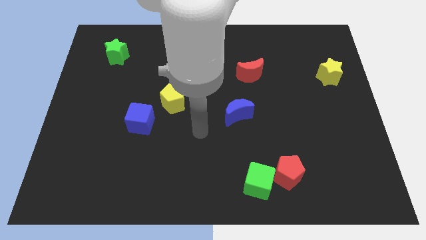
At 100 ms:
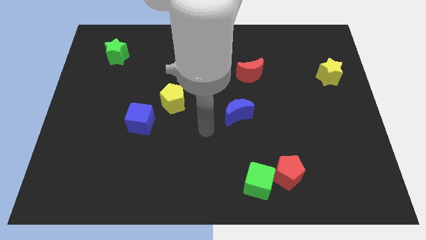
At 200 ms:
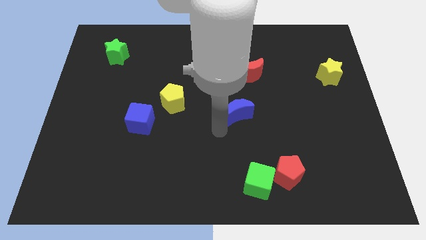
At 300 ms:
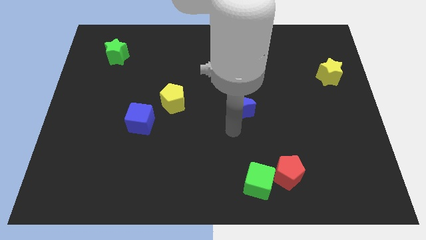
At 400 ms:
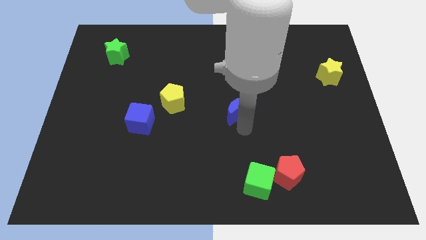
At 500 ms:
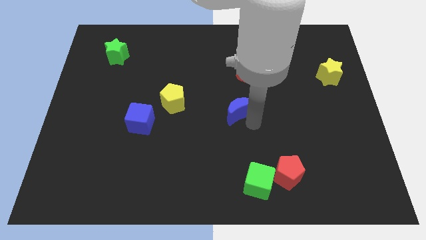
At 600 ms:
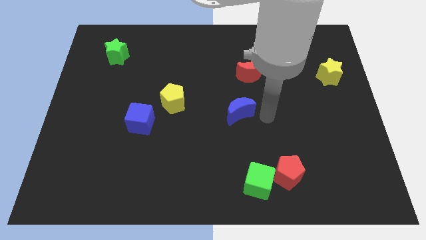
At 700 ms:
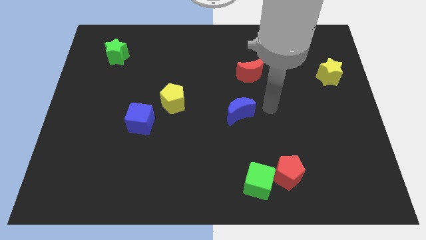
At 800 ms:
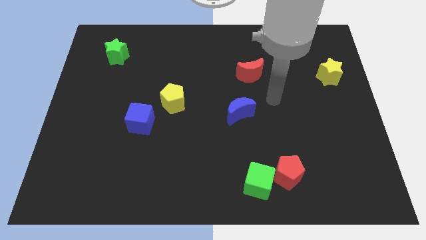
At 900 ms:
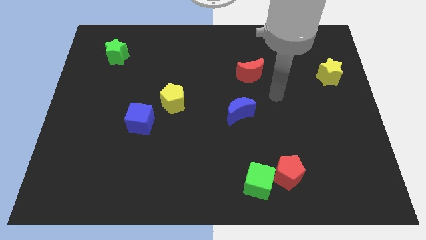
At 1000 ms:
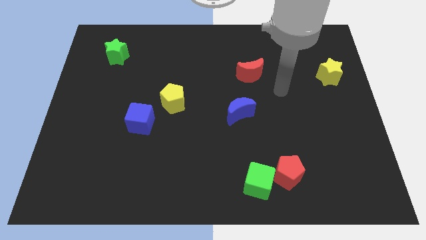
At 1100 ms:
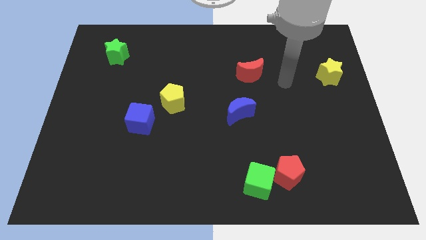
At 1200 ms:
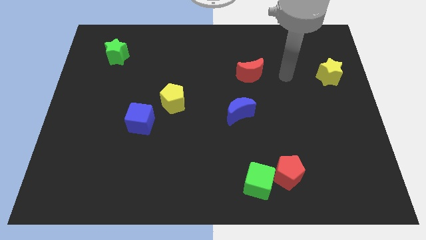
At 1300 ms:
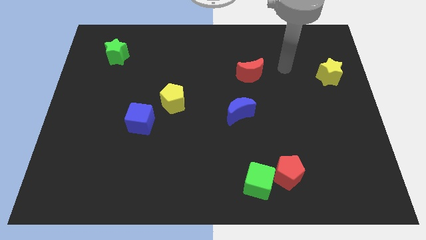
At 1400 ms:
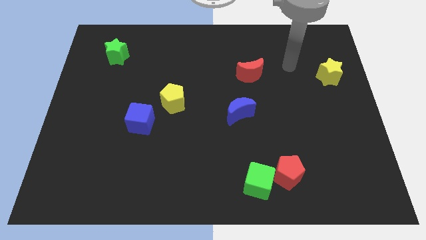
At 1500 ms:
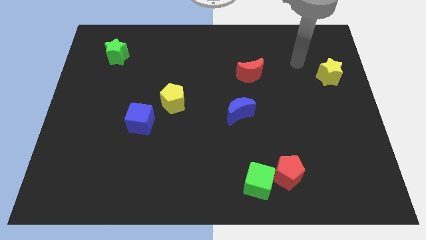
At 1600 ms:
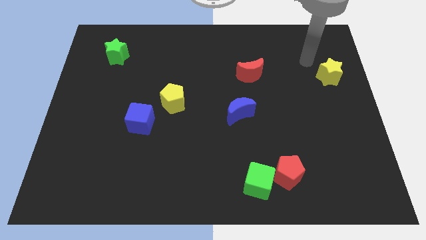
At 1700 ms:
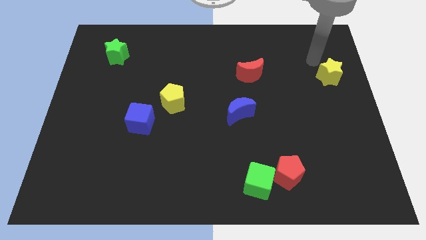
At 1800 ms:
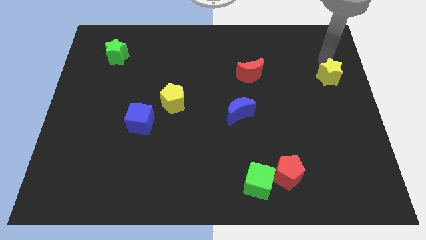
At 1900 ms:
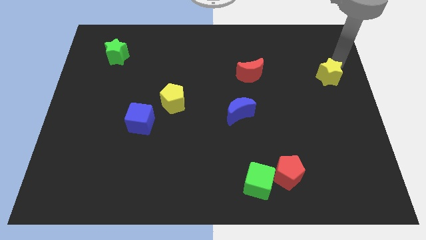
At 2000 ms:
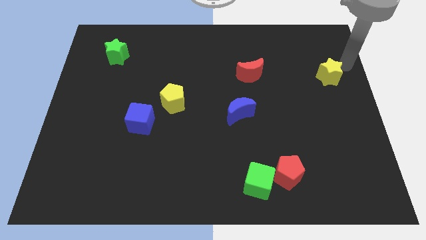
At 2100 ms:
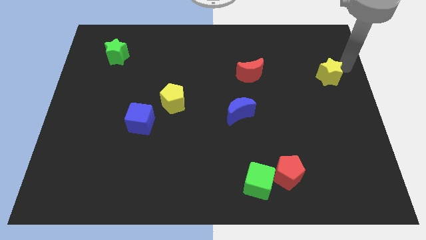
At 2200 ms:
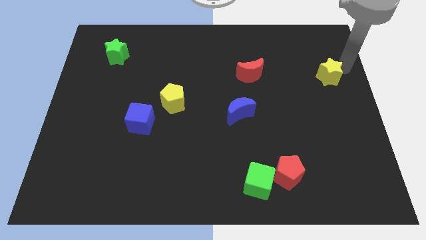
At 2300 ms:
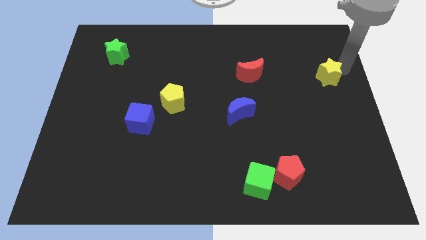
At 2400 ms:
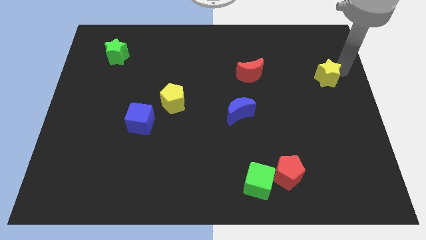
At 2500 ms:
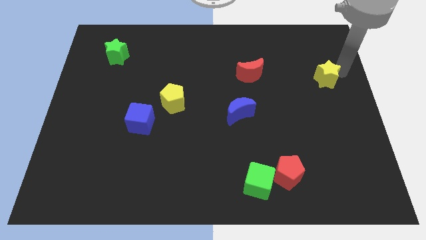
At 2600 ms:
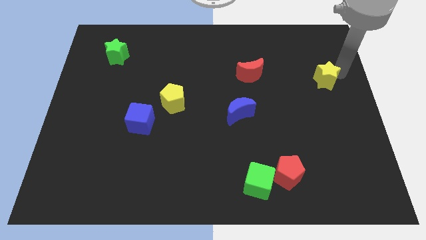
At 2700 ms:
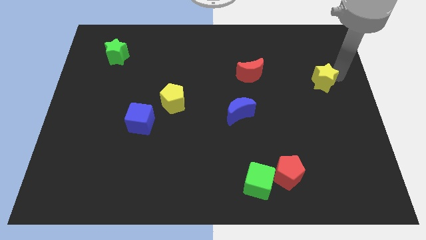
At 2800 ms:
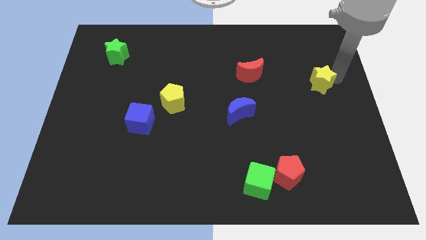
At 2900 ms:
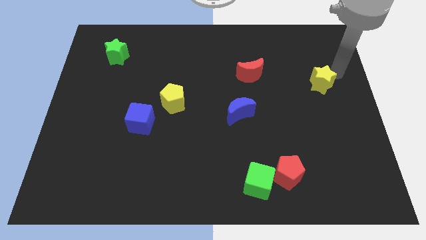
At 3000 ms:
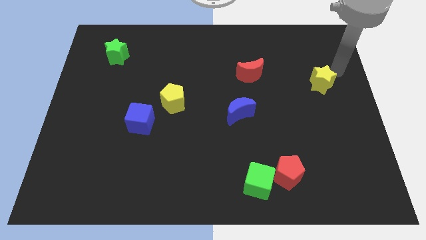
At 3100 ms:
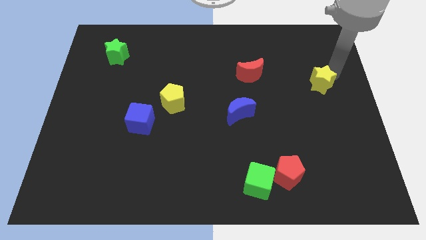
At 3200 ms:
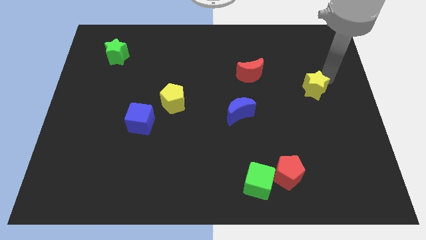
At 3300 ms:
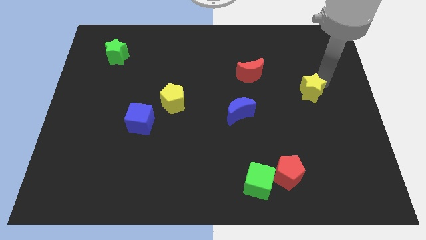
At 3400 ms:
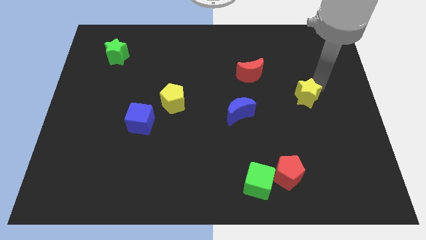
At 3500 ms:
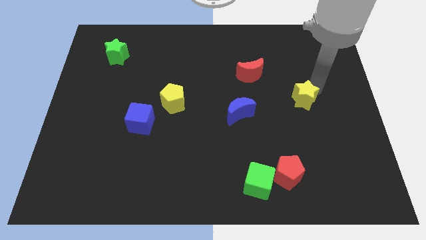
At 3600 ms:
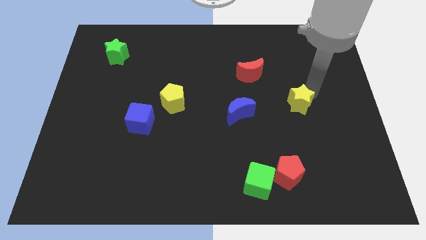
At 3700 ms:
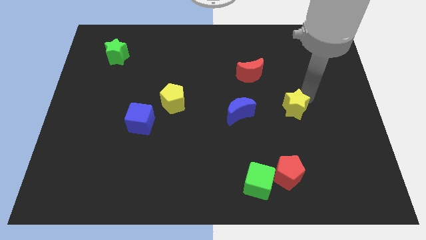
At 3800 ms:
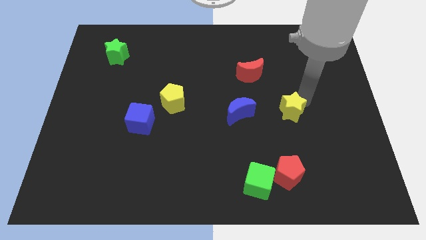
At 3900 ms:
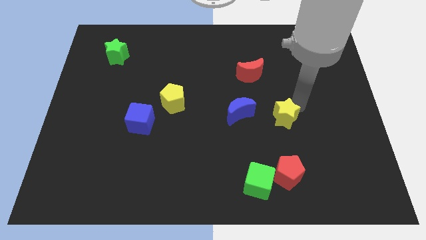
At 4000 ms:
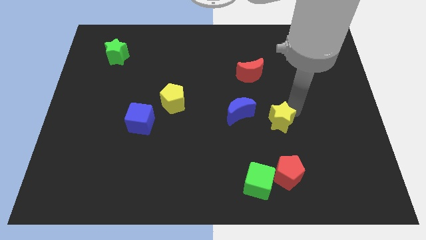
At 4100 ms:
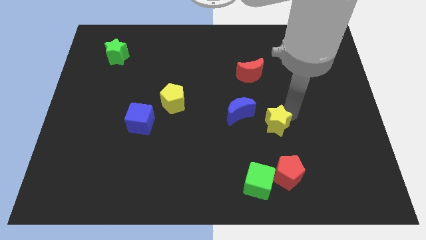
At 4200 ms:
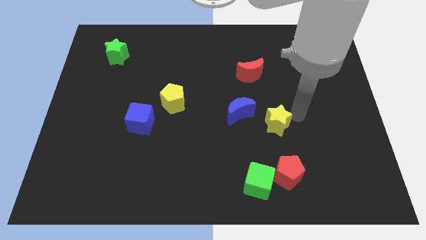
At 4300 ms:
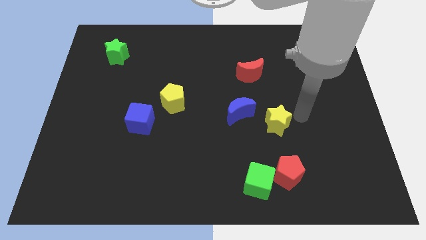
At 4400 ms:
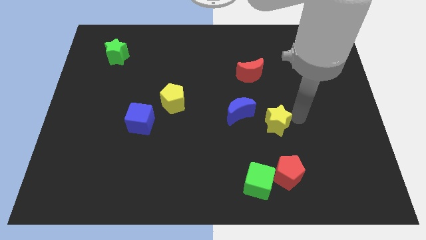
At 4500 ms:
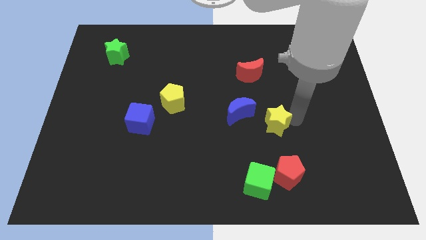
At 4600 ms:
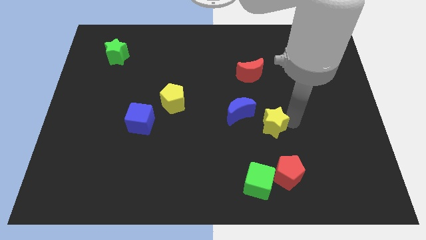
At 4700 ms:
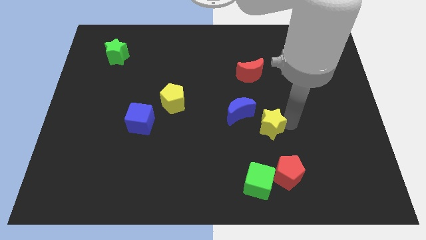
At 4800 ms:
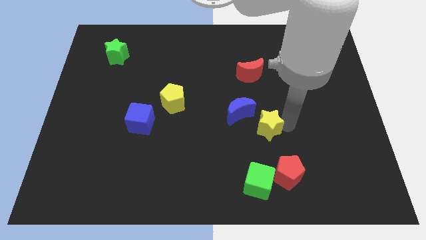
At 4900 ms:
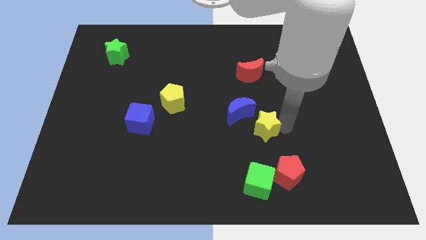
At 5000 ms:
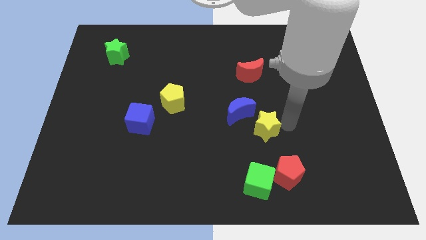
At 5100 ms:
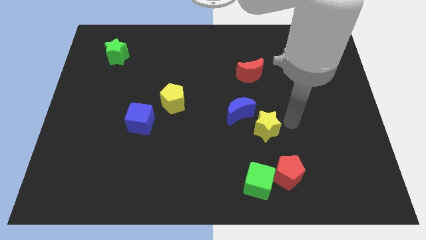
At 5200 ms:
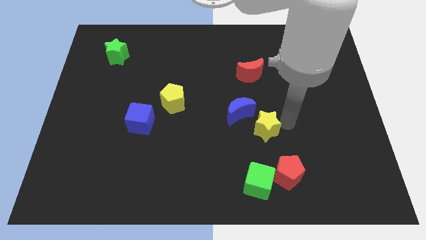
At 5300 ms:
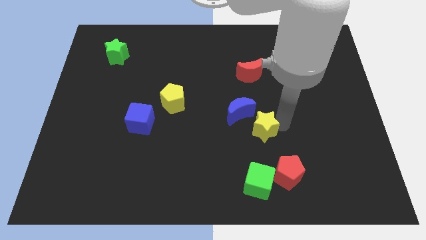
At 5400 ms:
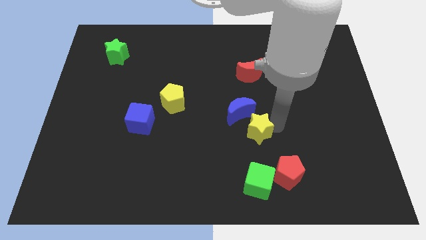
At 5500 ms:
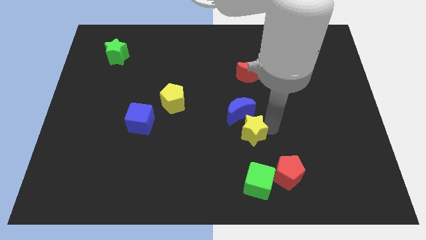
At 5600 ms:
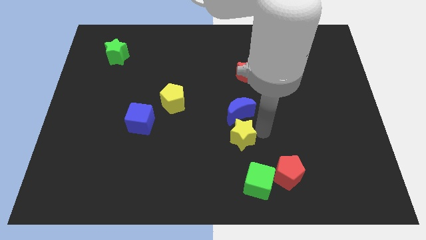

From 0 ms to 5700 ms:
move the yellow star to the bottom left side of the blue moon

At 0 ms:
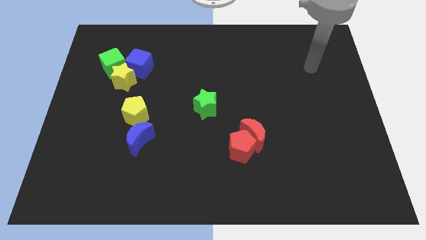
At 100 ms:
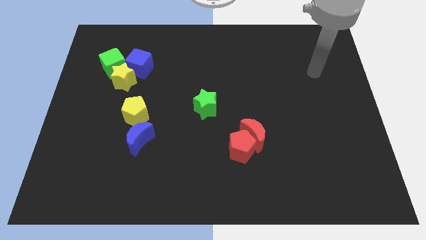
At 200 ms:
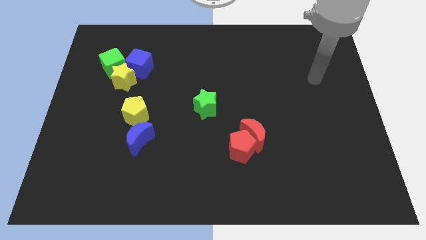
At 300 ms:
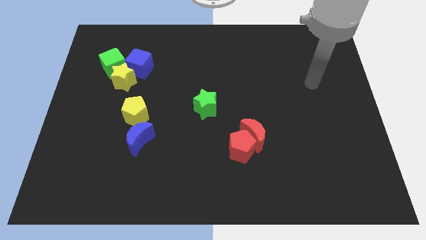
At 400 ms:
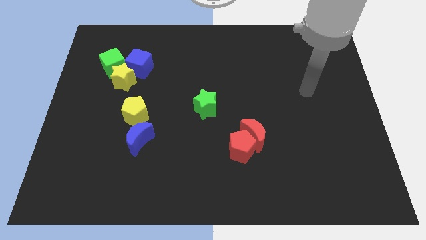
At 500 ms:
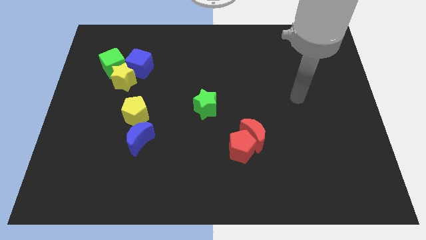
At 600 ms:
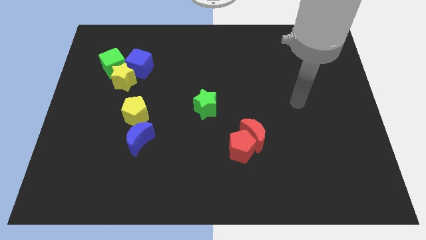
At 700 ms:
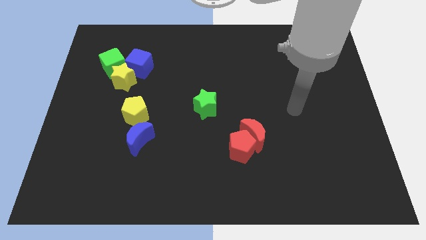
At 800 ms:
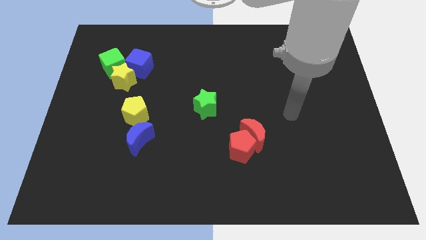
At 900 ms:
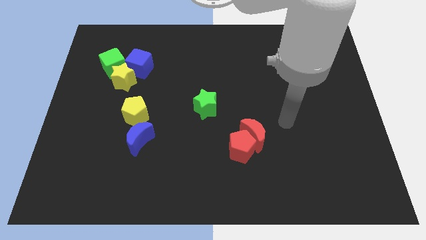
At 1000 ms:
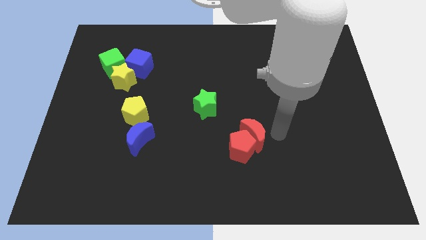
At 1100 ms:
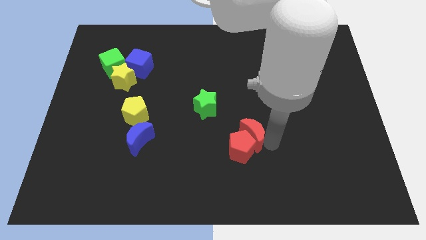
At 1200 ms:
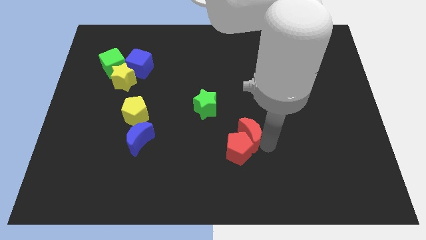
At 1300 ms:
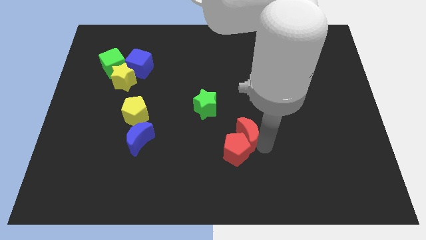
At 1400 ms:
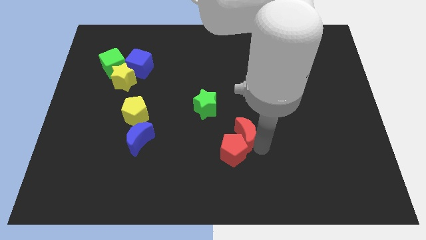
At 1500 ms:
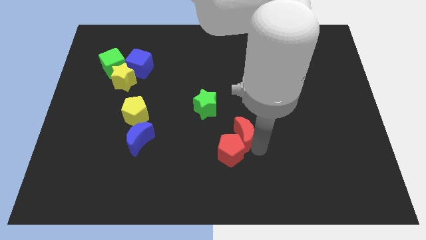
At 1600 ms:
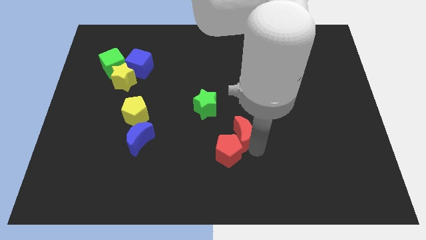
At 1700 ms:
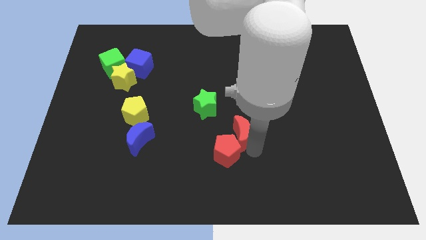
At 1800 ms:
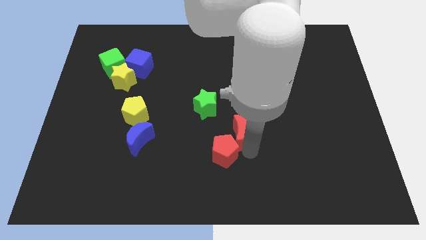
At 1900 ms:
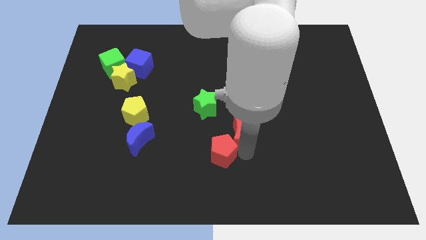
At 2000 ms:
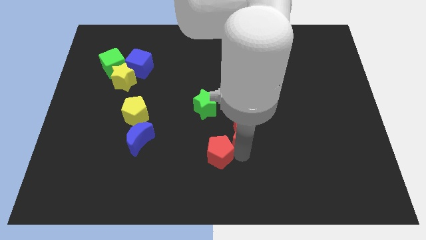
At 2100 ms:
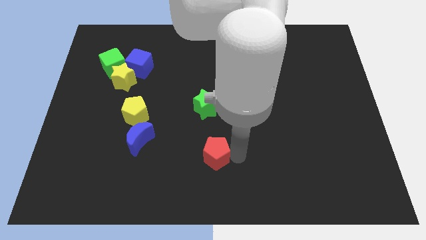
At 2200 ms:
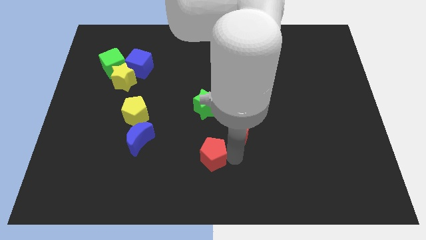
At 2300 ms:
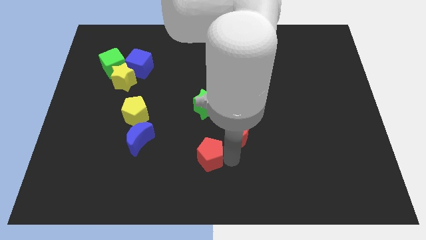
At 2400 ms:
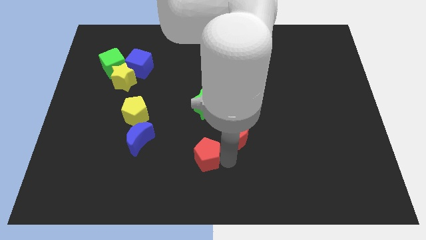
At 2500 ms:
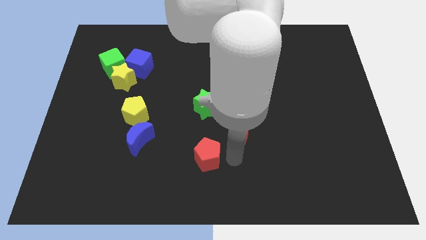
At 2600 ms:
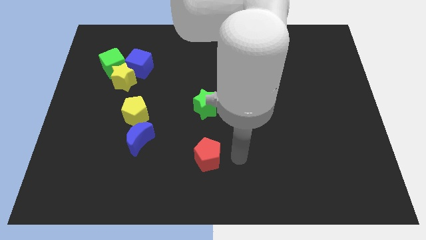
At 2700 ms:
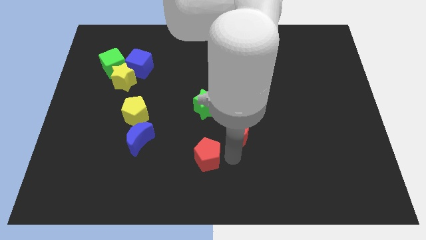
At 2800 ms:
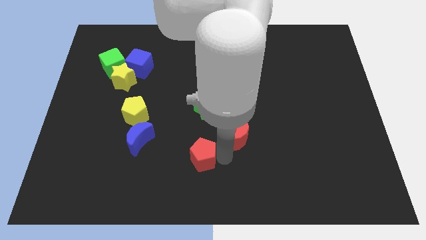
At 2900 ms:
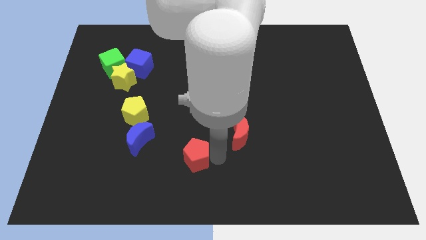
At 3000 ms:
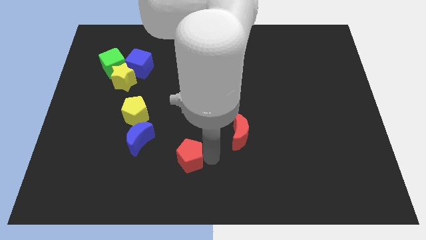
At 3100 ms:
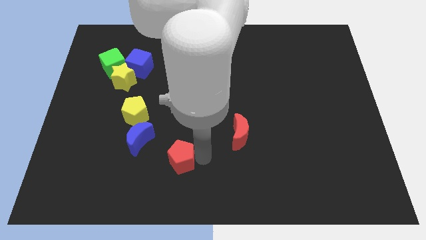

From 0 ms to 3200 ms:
put the red pentagon to the bottom right side of the blue moon
